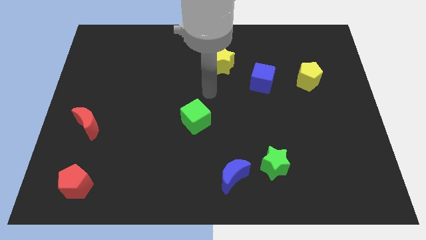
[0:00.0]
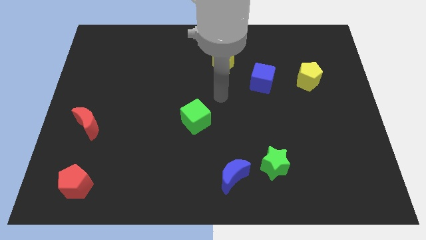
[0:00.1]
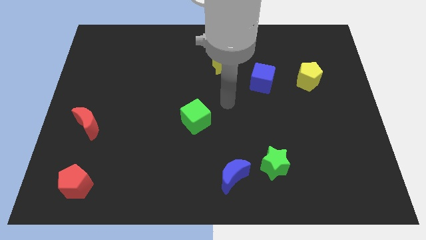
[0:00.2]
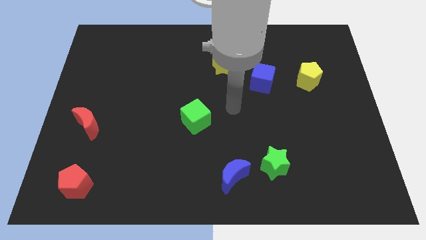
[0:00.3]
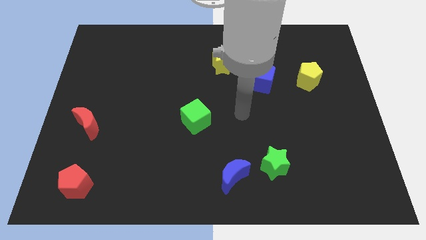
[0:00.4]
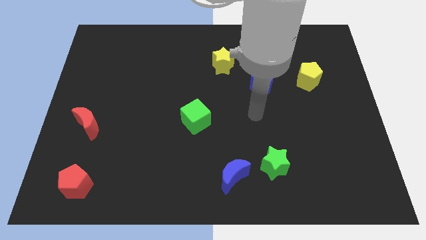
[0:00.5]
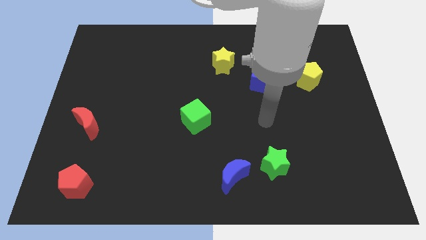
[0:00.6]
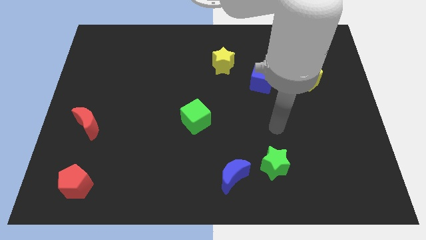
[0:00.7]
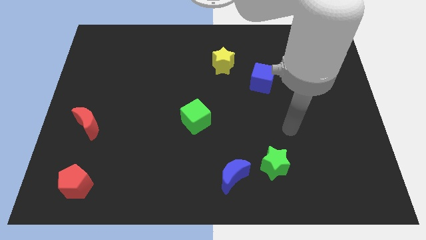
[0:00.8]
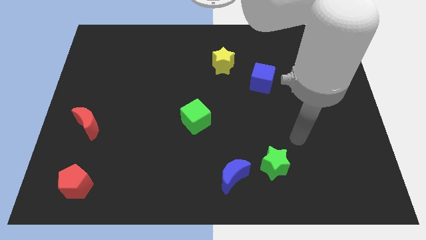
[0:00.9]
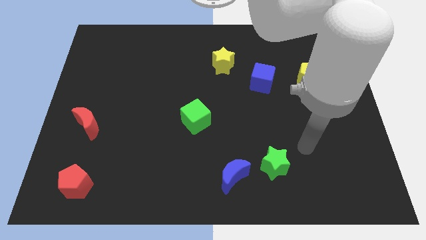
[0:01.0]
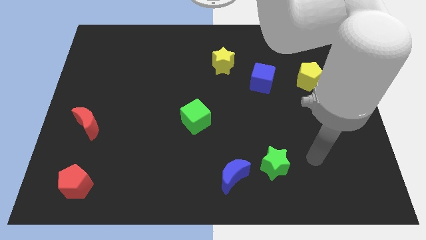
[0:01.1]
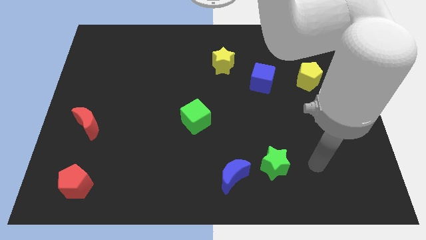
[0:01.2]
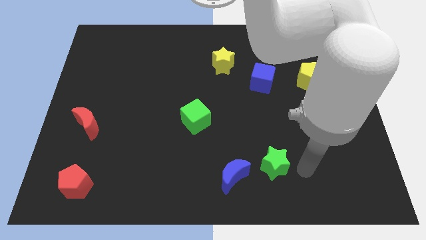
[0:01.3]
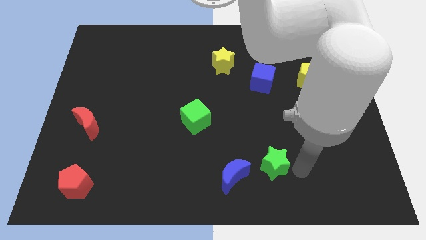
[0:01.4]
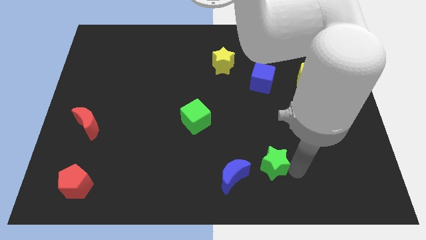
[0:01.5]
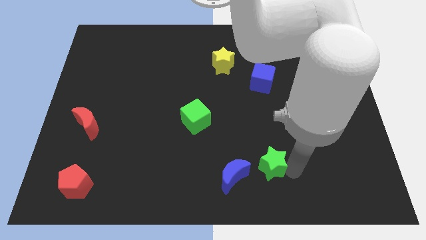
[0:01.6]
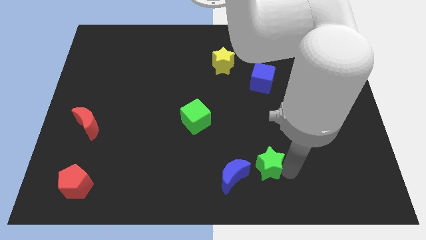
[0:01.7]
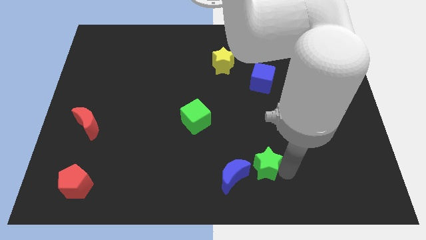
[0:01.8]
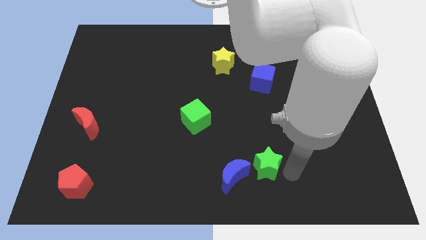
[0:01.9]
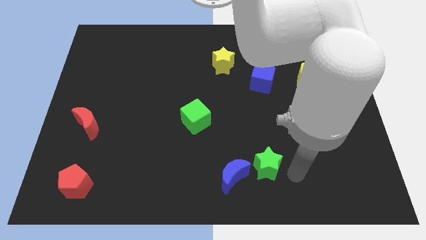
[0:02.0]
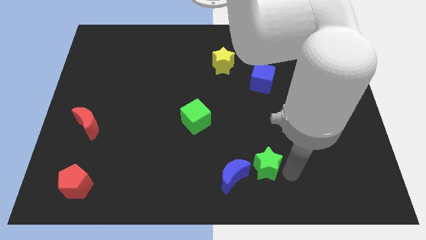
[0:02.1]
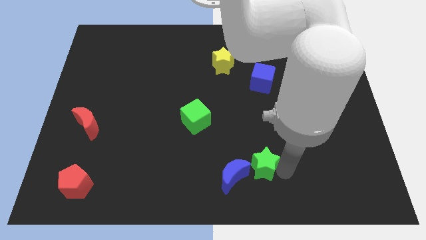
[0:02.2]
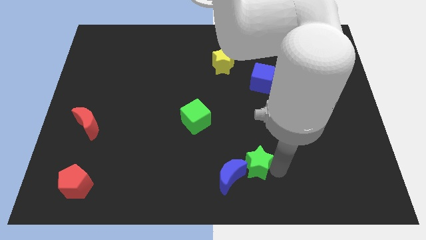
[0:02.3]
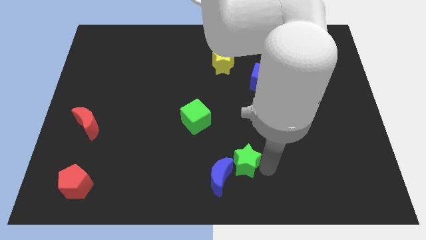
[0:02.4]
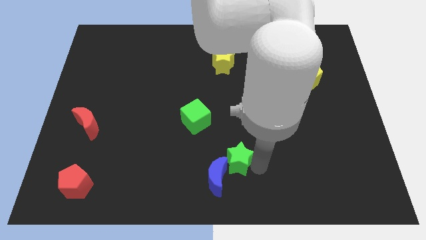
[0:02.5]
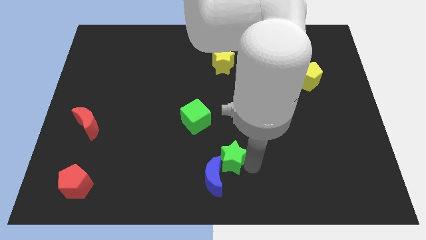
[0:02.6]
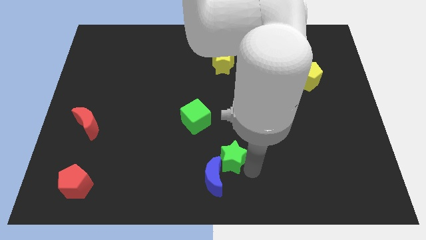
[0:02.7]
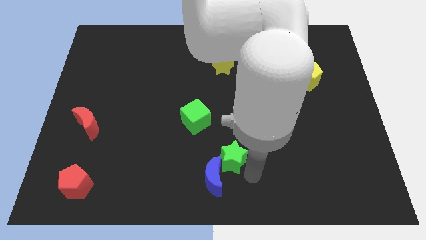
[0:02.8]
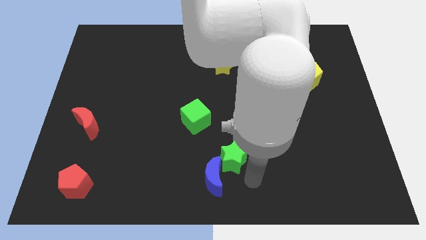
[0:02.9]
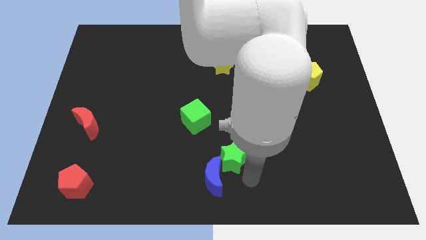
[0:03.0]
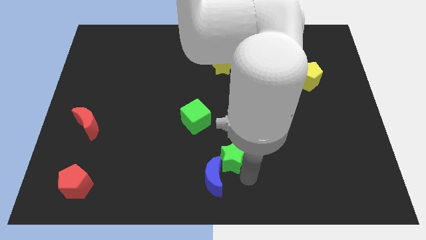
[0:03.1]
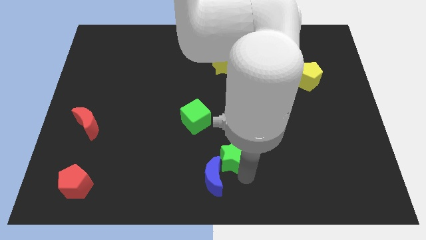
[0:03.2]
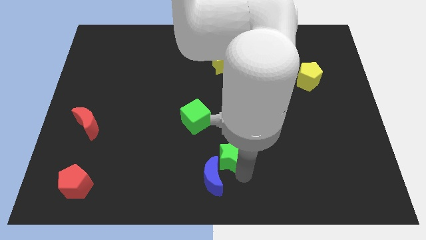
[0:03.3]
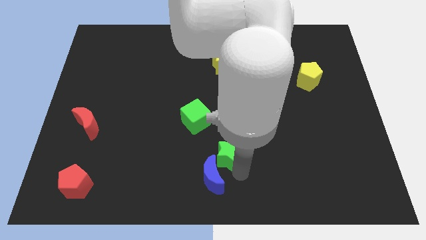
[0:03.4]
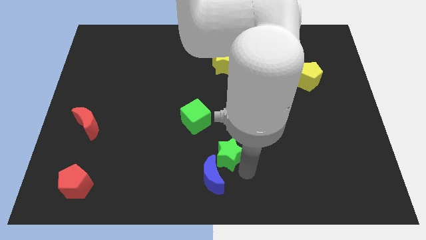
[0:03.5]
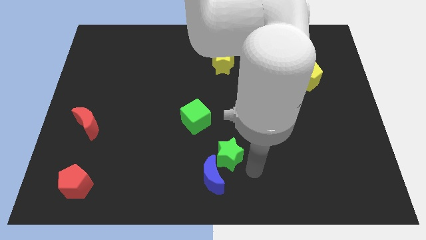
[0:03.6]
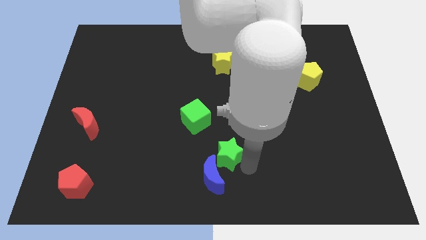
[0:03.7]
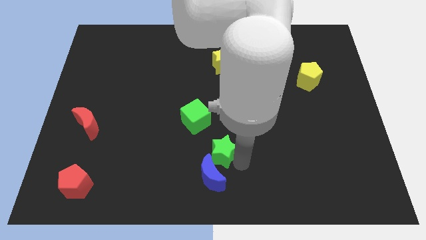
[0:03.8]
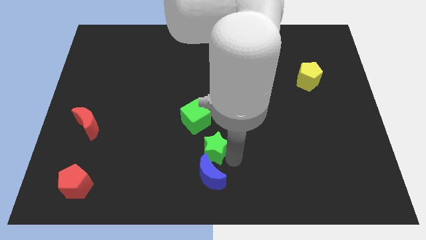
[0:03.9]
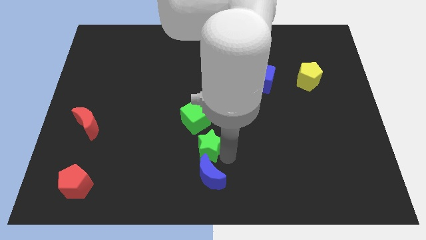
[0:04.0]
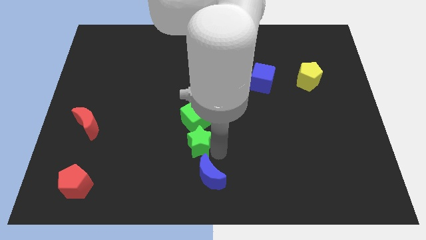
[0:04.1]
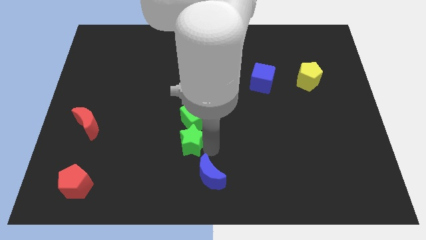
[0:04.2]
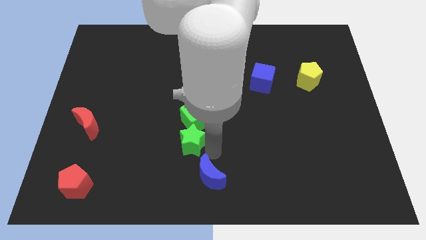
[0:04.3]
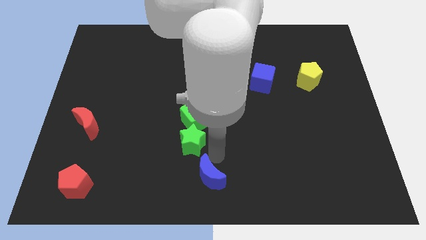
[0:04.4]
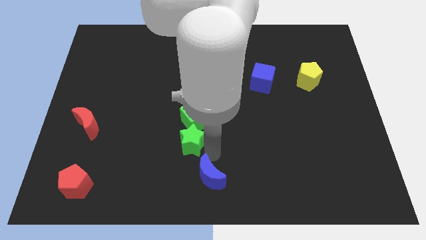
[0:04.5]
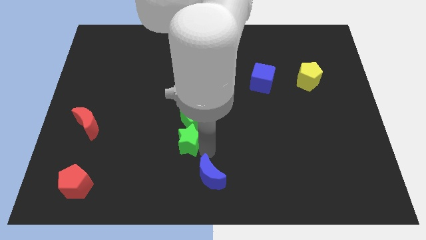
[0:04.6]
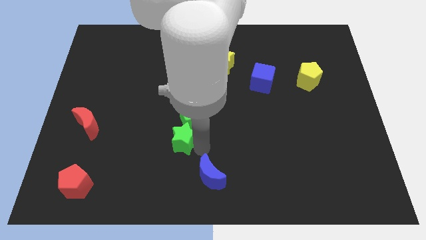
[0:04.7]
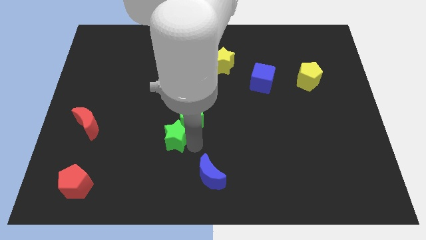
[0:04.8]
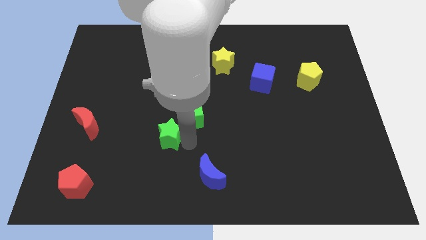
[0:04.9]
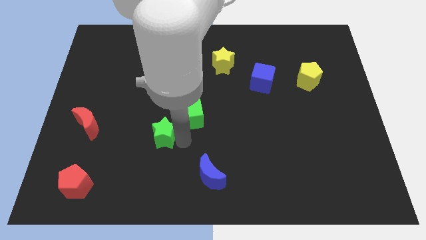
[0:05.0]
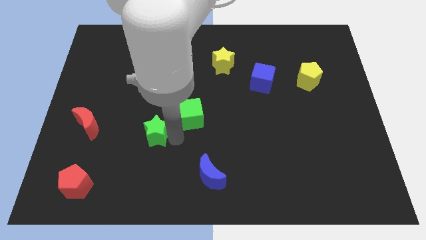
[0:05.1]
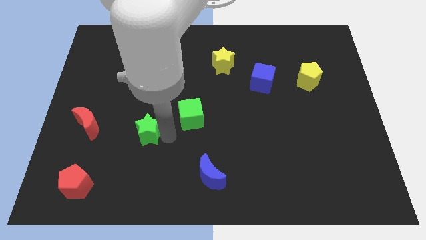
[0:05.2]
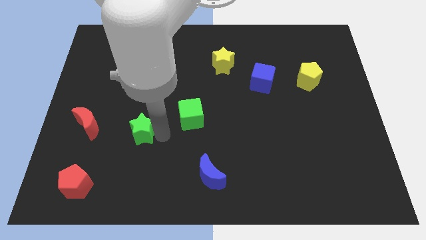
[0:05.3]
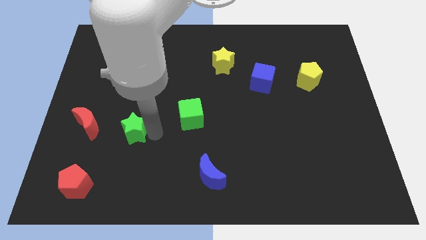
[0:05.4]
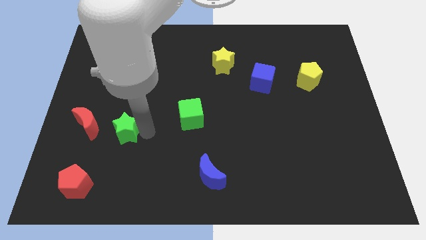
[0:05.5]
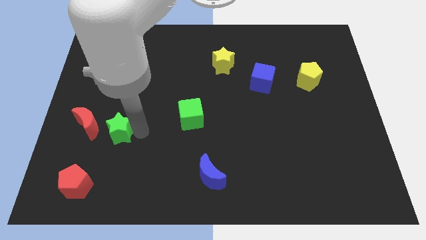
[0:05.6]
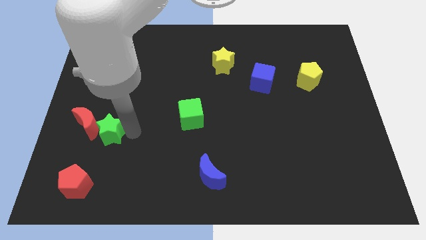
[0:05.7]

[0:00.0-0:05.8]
move the green star towards the red moon

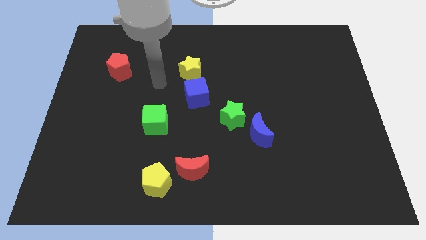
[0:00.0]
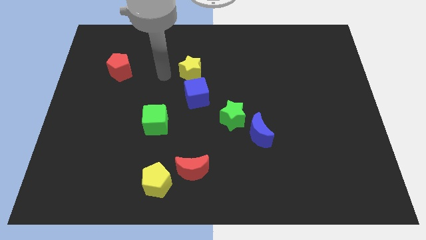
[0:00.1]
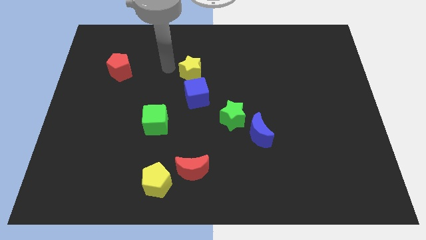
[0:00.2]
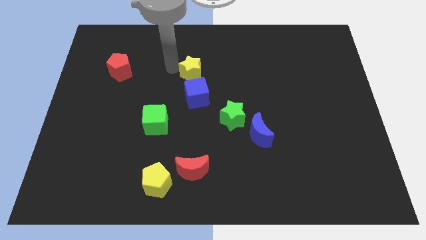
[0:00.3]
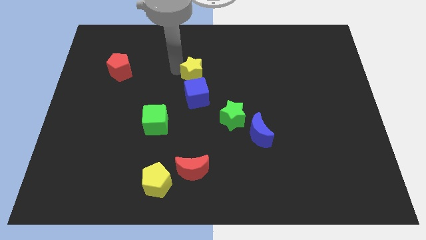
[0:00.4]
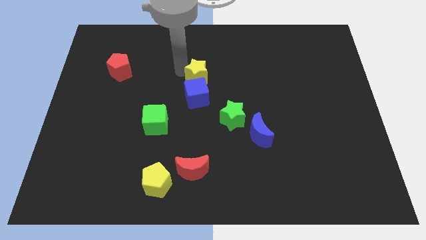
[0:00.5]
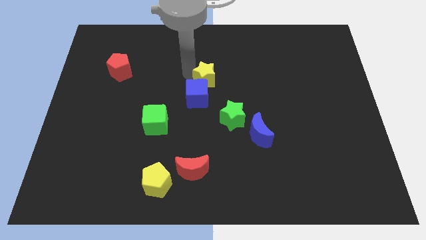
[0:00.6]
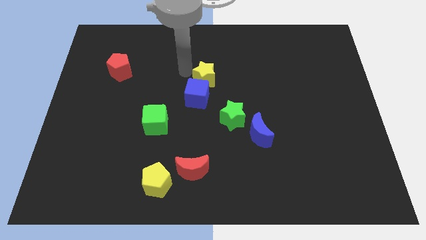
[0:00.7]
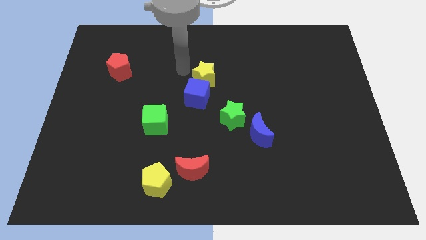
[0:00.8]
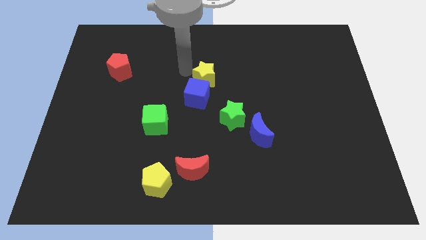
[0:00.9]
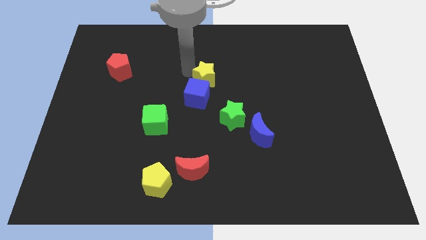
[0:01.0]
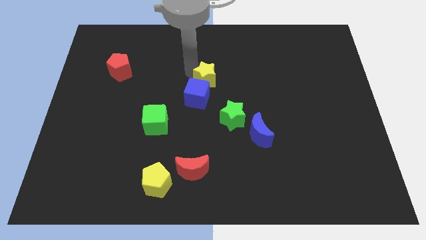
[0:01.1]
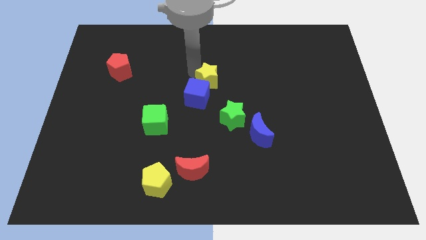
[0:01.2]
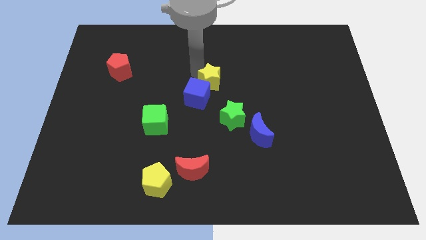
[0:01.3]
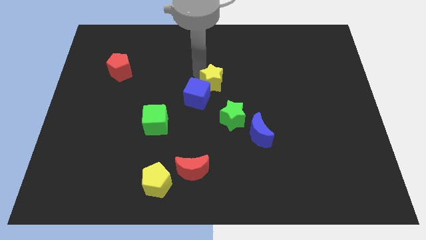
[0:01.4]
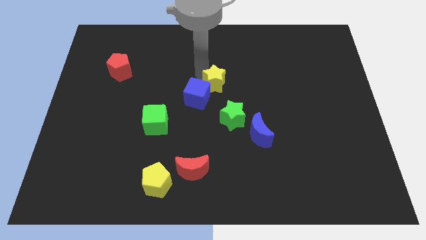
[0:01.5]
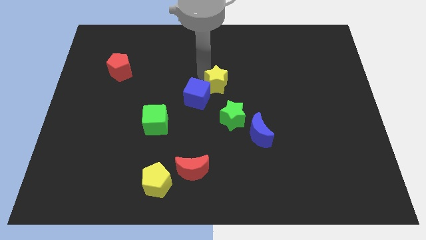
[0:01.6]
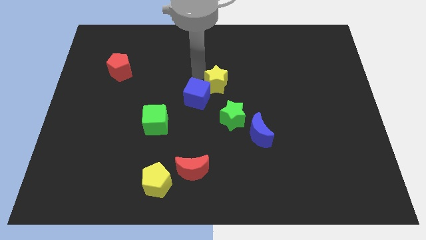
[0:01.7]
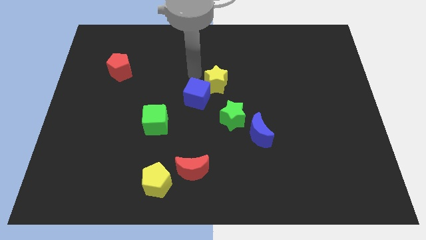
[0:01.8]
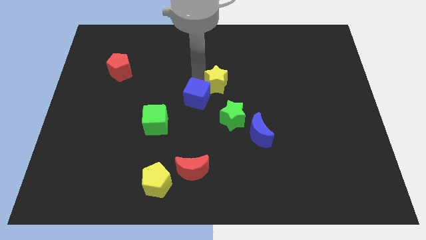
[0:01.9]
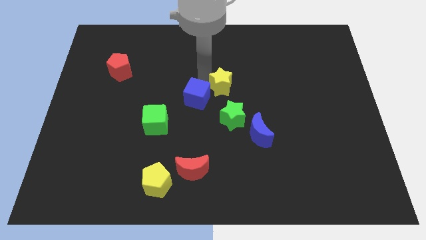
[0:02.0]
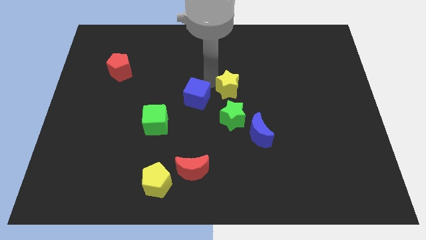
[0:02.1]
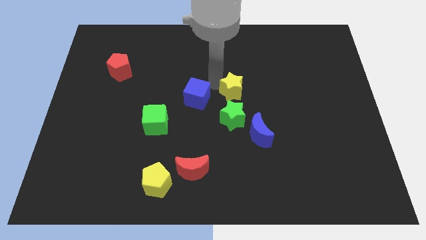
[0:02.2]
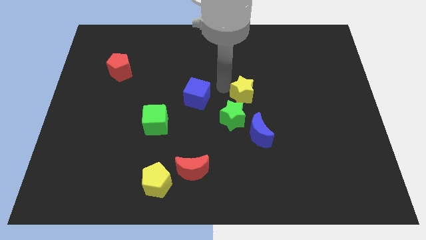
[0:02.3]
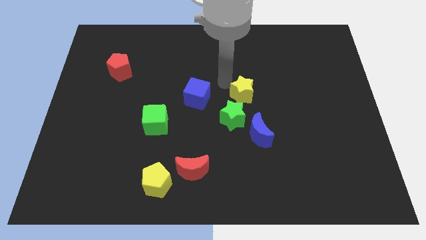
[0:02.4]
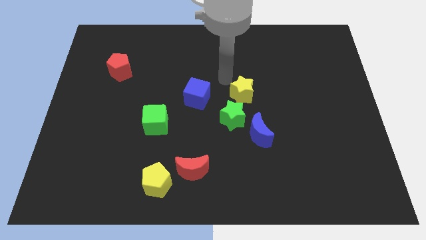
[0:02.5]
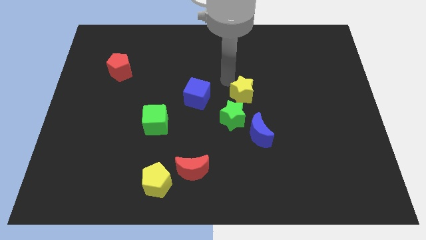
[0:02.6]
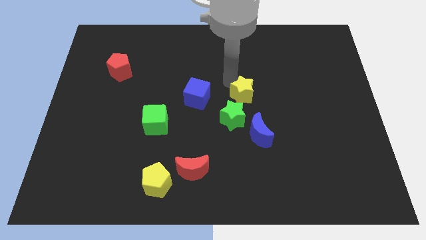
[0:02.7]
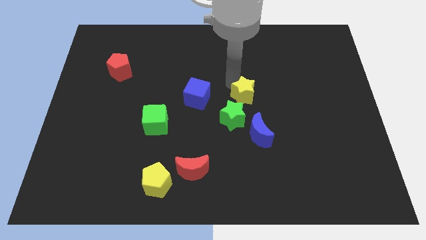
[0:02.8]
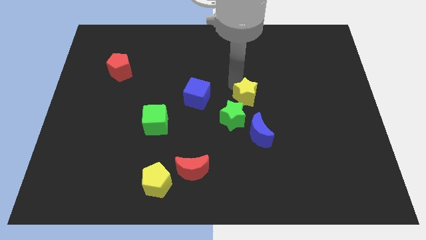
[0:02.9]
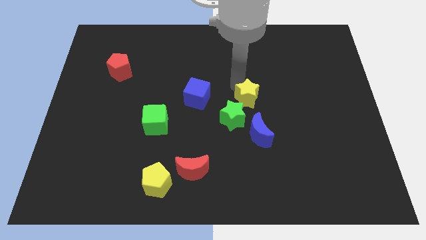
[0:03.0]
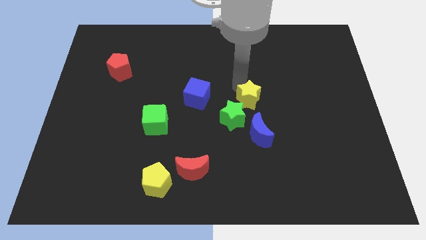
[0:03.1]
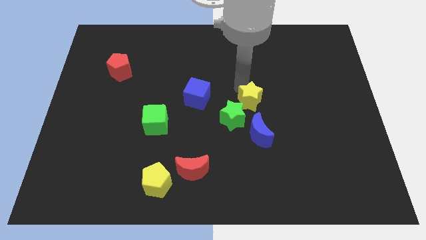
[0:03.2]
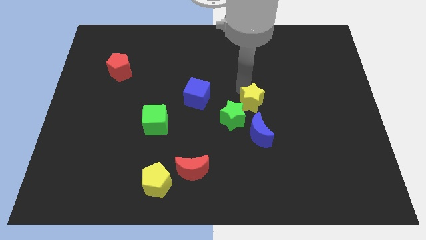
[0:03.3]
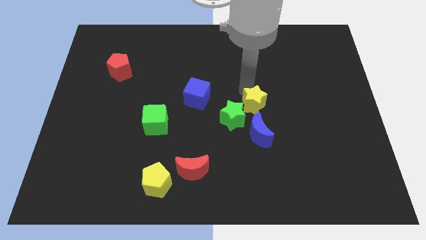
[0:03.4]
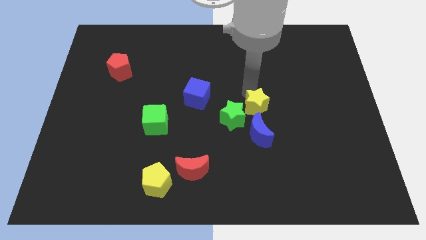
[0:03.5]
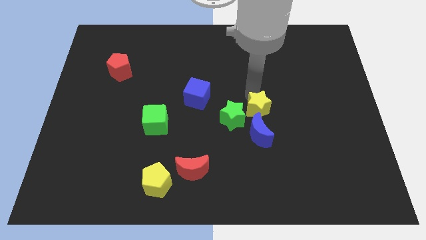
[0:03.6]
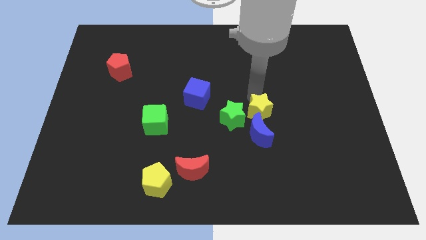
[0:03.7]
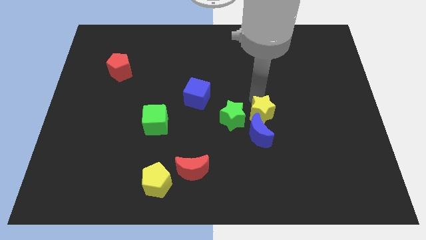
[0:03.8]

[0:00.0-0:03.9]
slide the yellow star close to the blue moon
